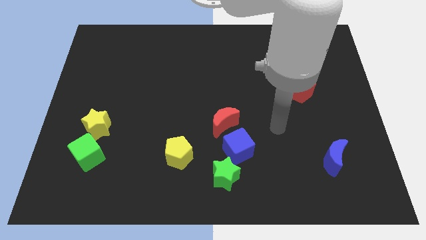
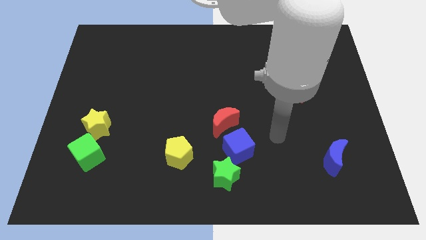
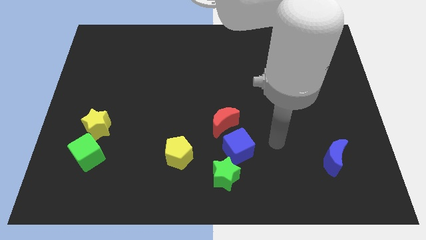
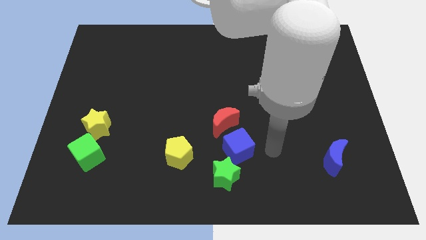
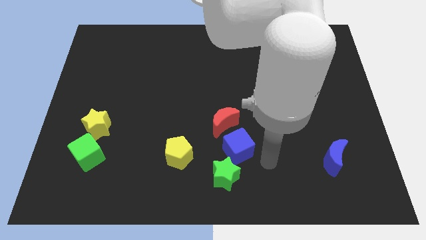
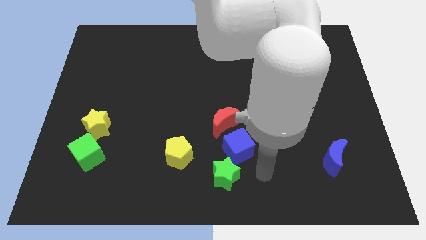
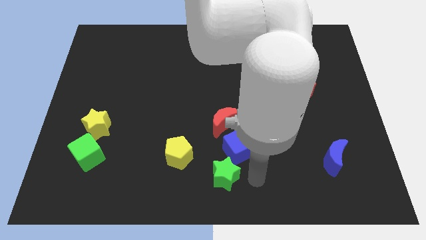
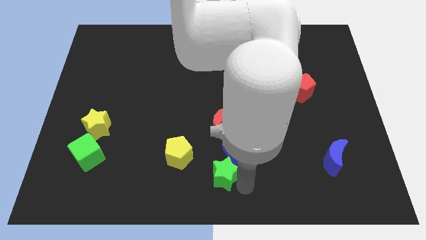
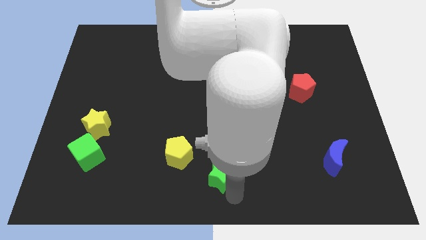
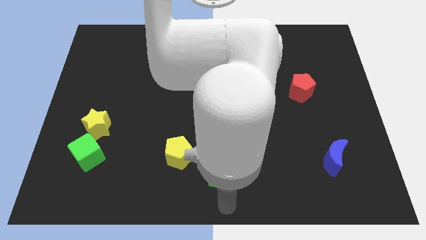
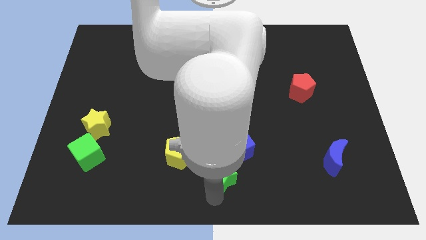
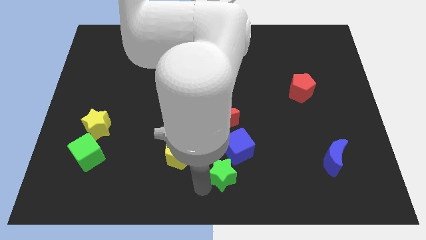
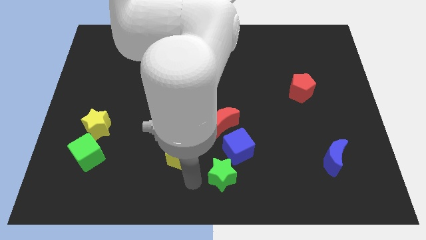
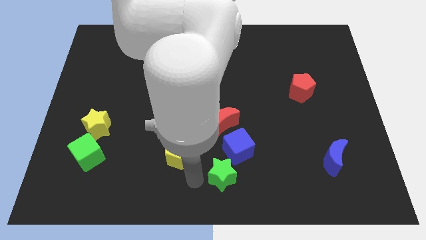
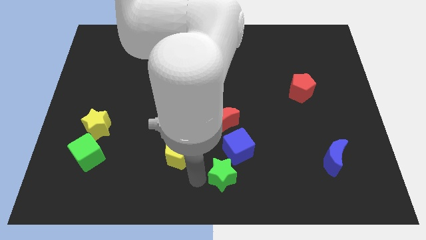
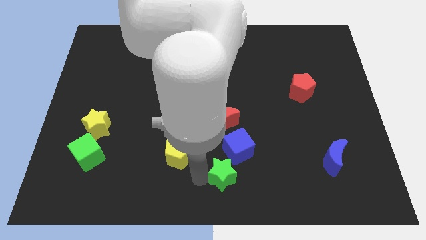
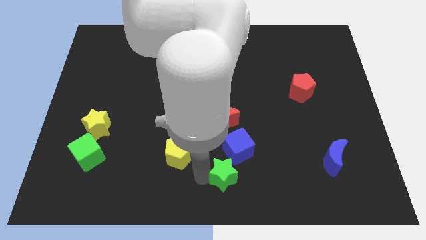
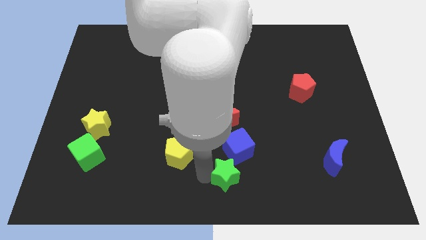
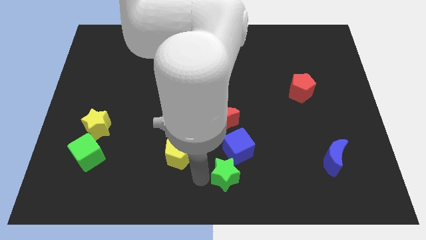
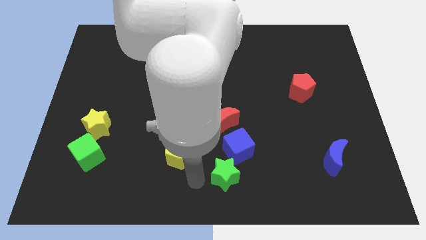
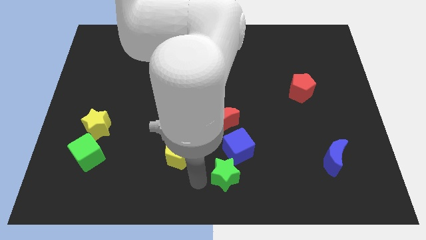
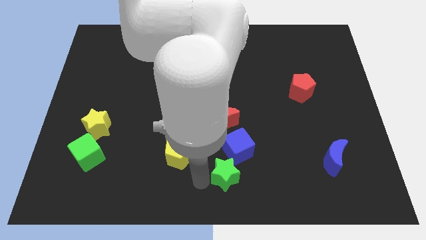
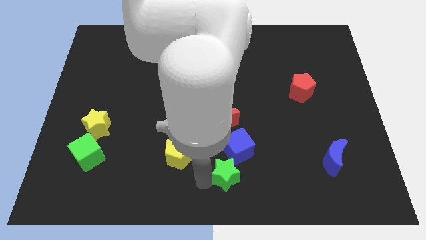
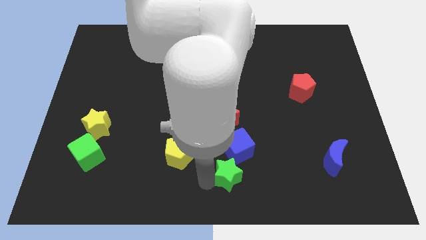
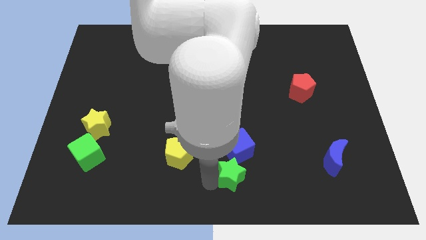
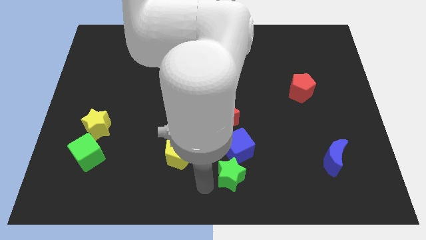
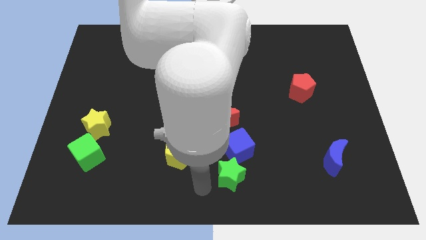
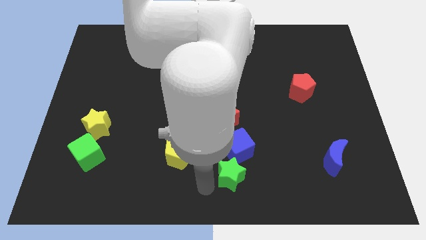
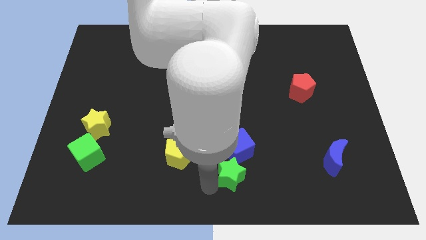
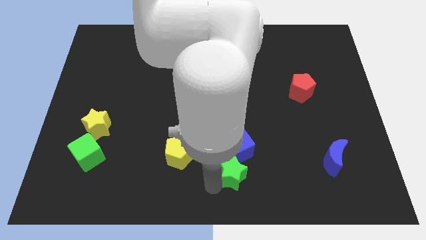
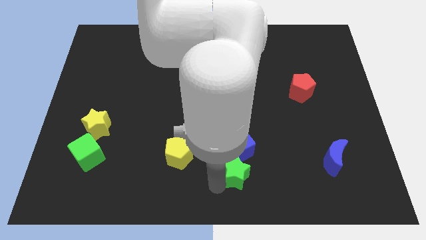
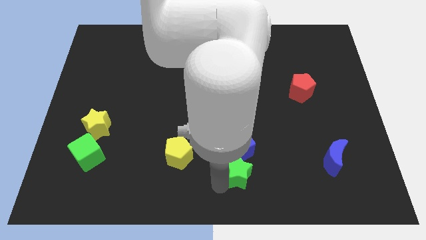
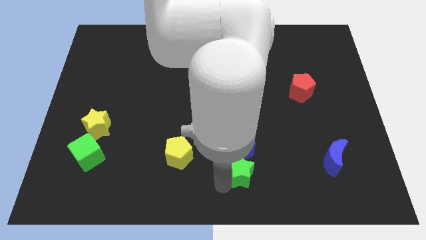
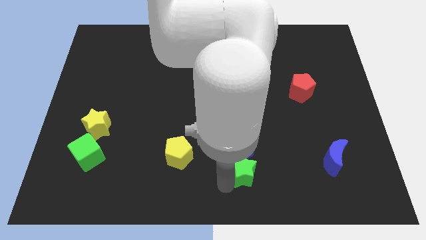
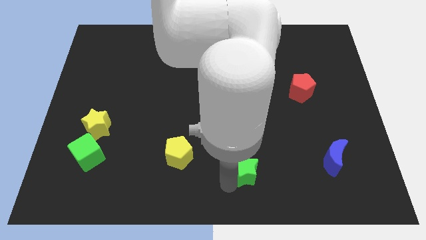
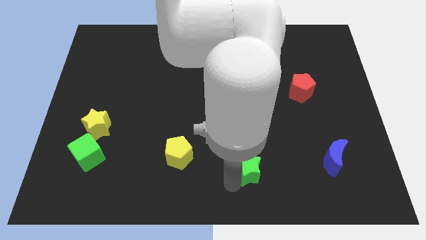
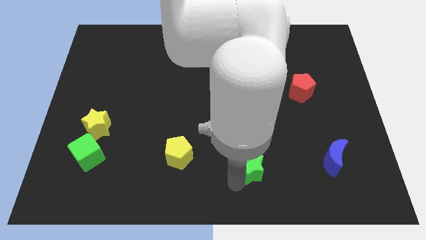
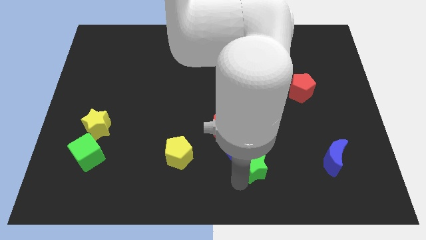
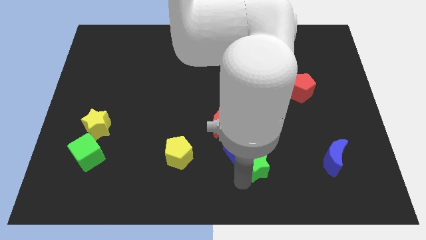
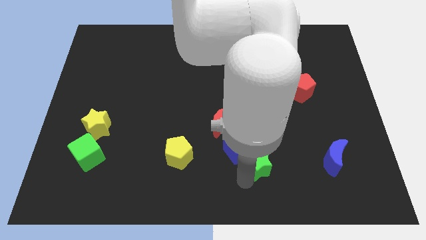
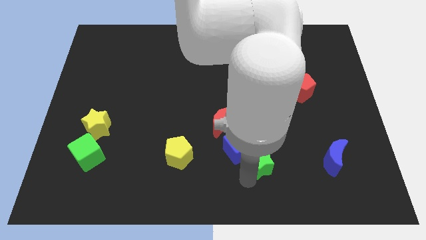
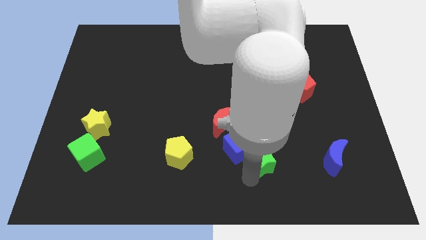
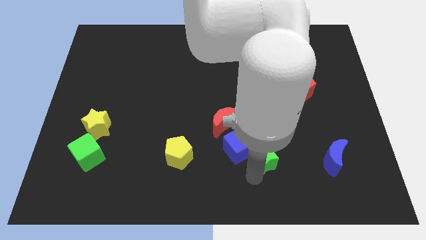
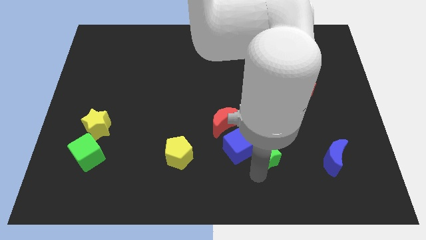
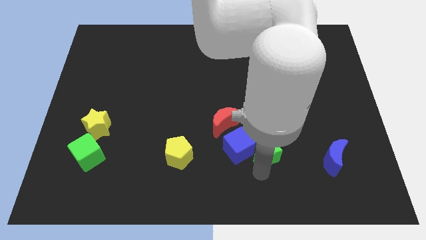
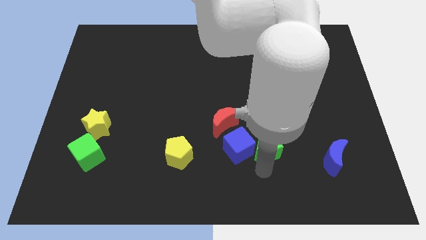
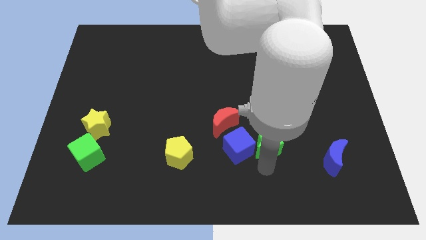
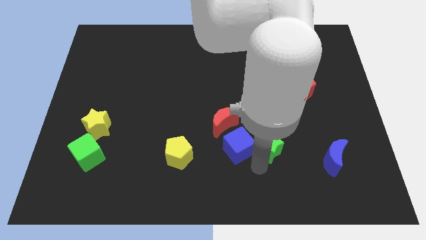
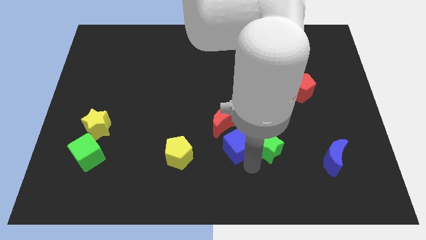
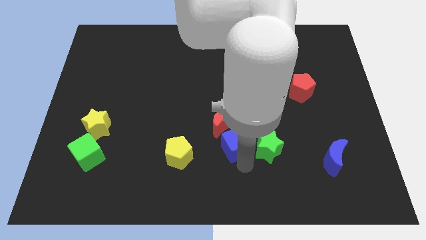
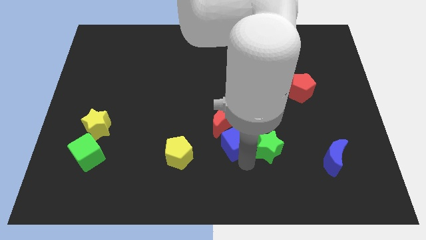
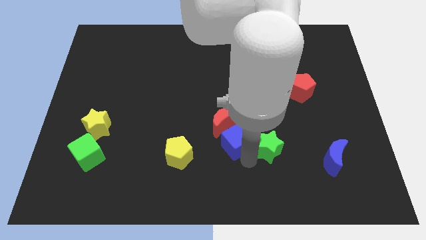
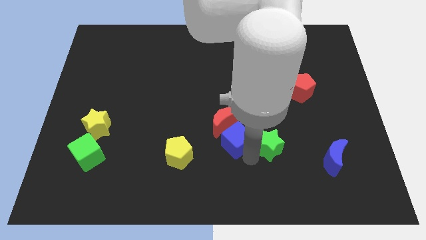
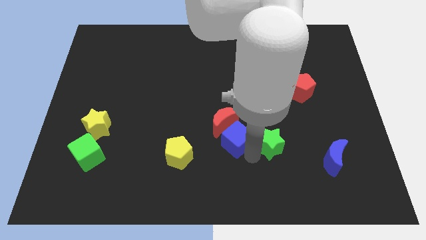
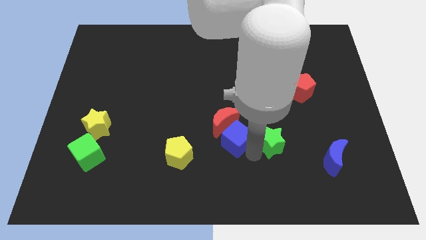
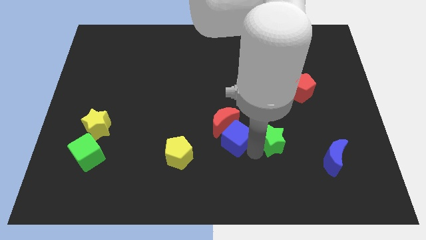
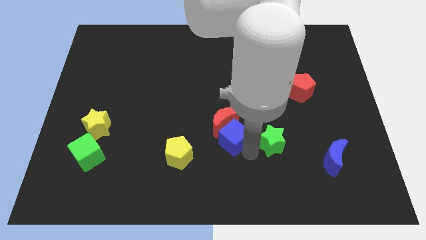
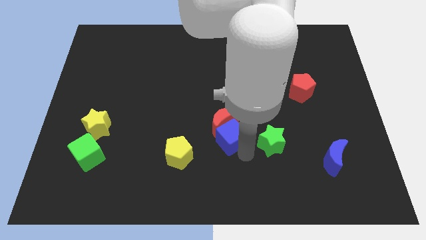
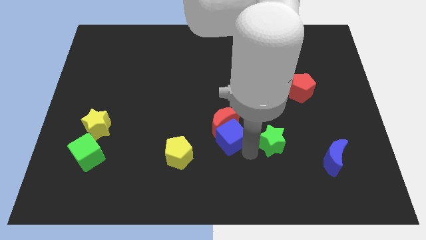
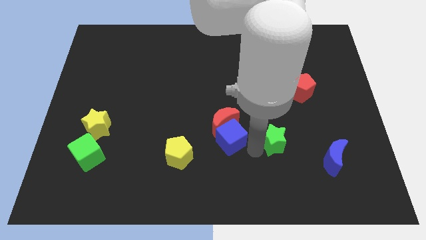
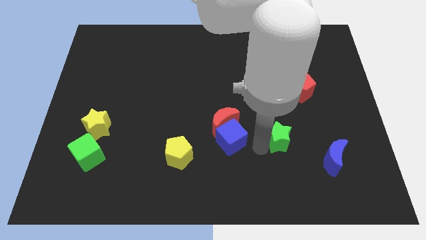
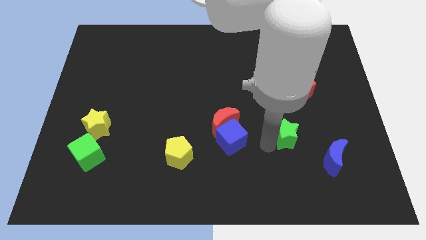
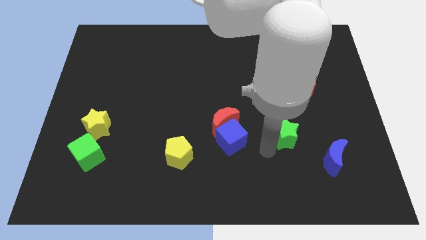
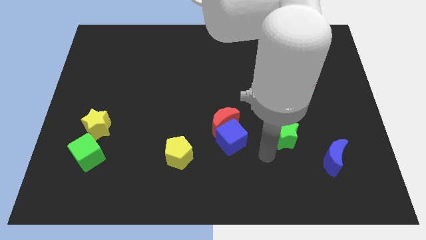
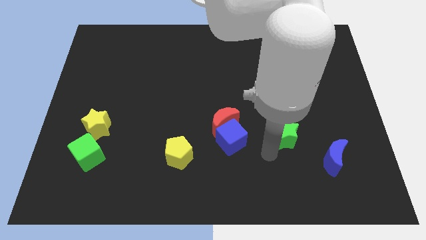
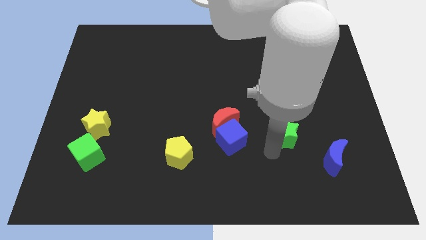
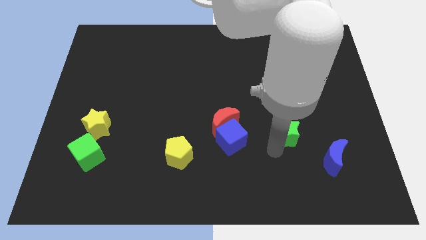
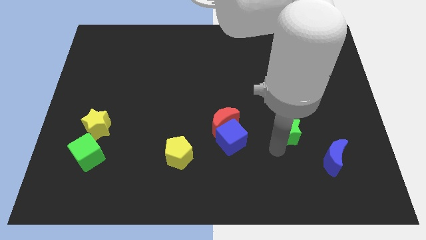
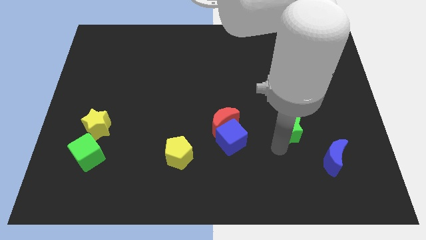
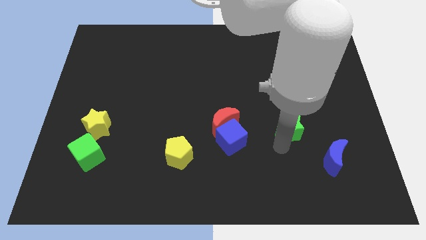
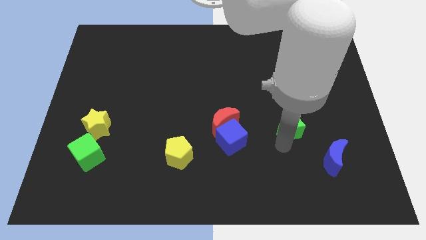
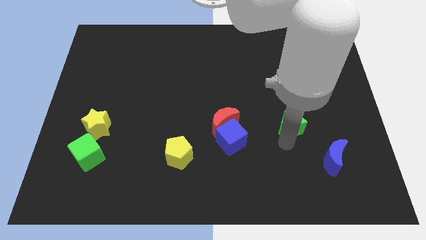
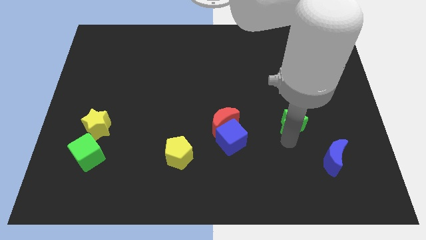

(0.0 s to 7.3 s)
push the green star up and to the right diagonally

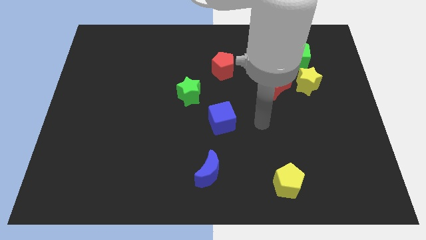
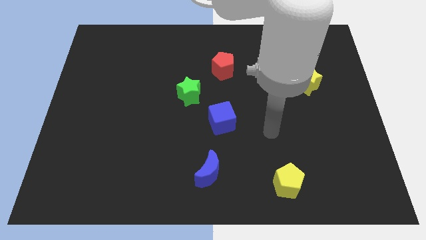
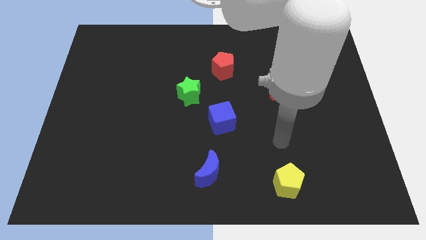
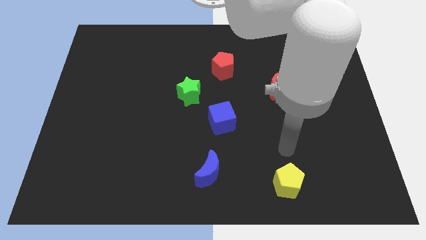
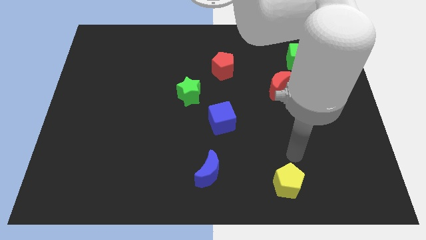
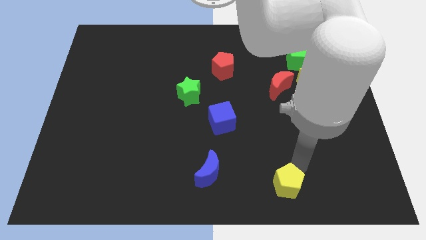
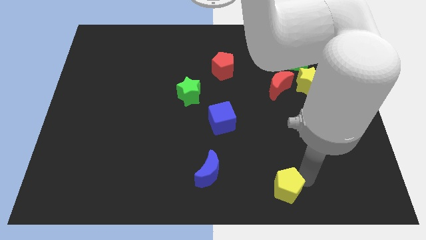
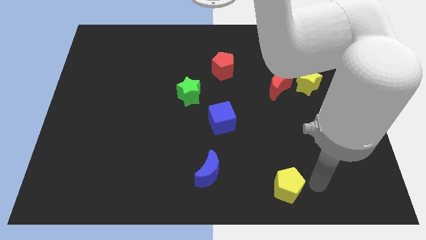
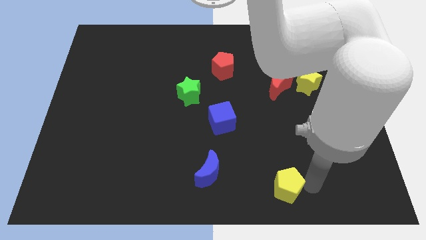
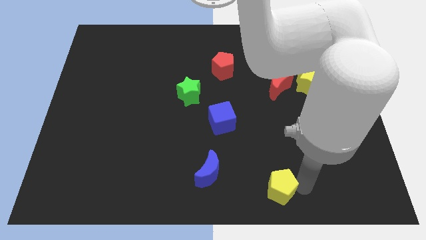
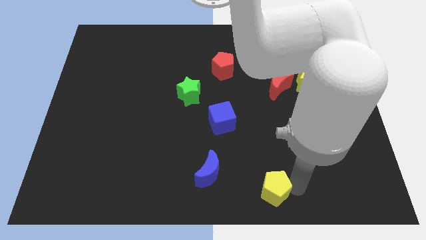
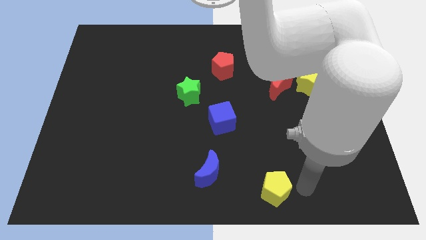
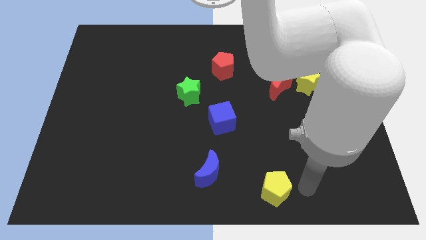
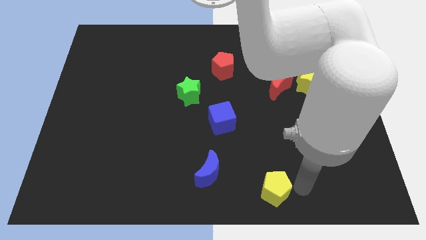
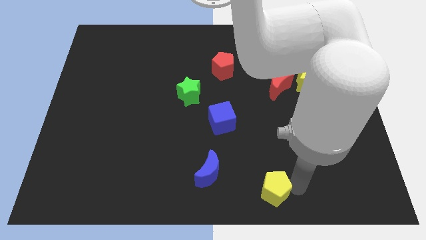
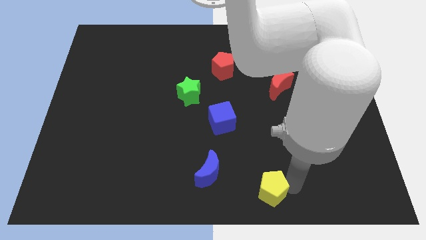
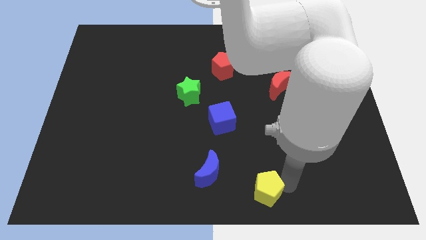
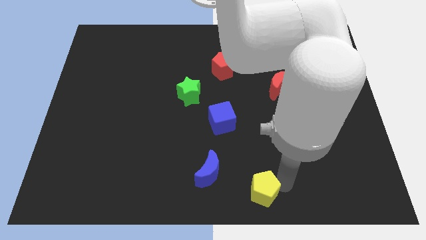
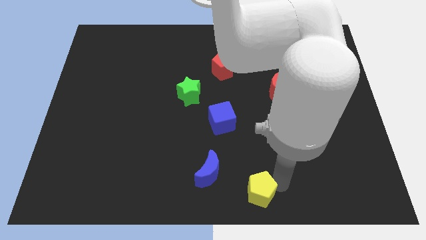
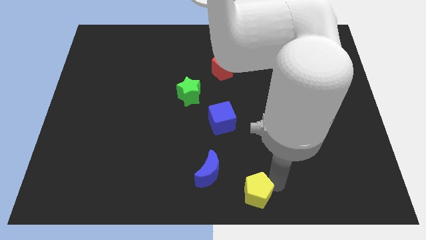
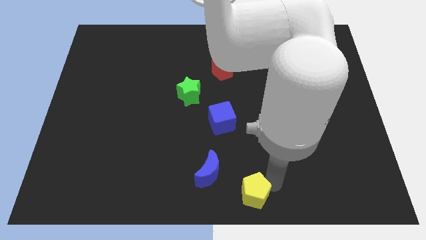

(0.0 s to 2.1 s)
push the yellow pentagon a bit to the left
